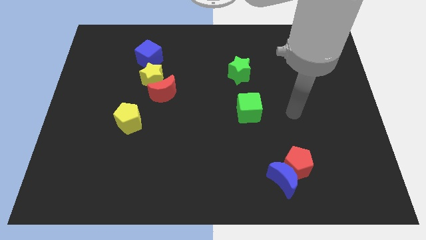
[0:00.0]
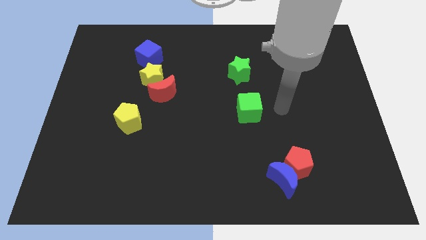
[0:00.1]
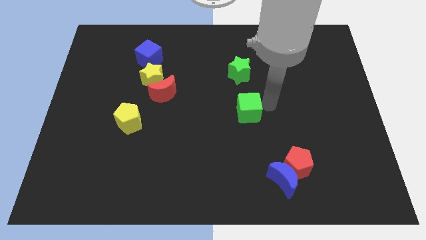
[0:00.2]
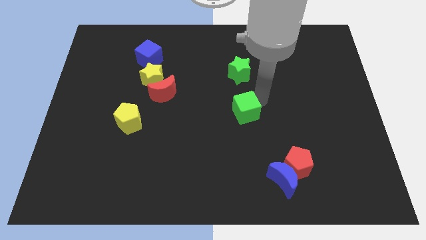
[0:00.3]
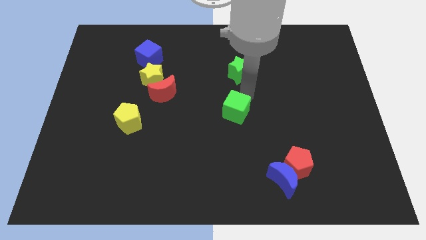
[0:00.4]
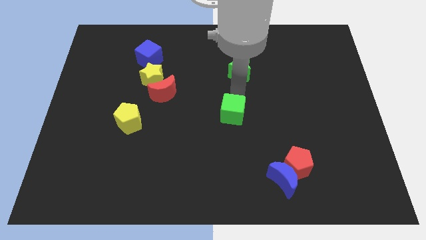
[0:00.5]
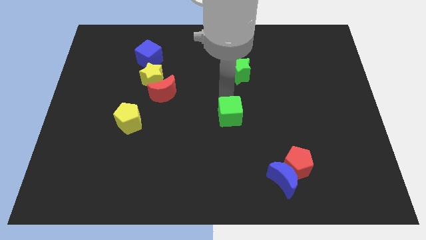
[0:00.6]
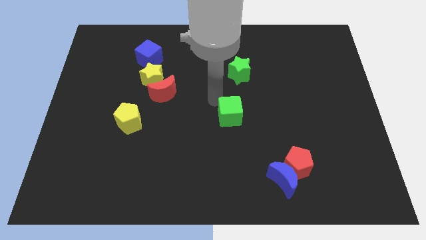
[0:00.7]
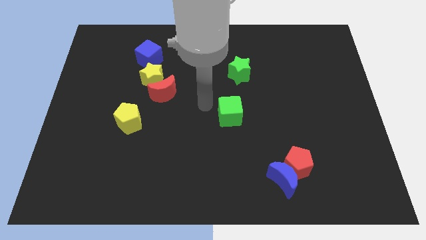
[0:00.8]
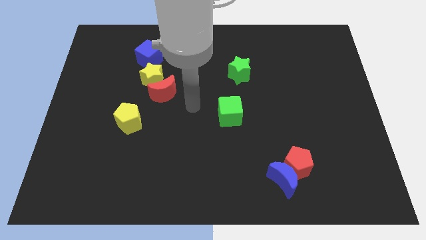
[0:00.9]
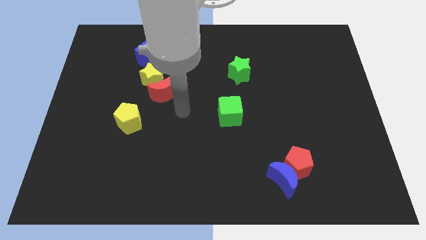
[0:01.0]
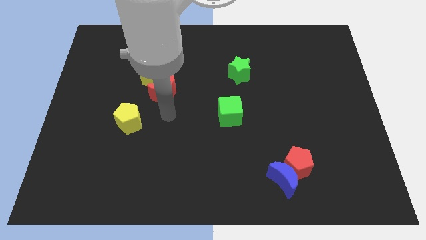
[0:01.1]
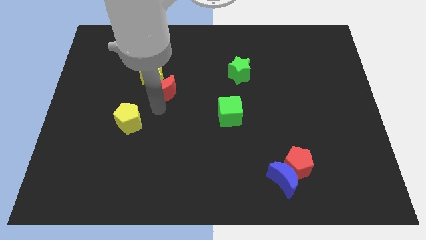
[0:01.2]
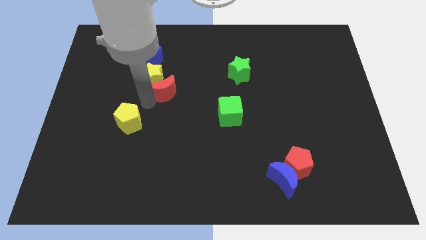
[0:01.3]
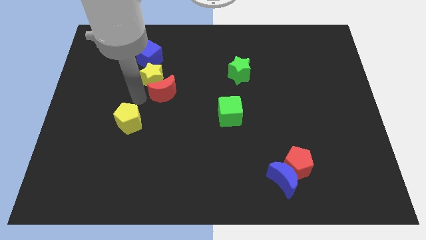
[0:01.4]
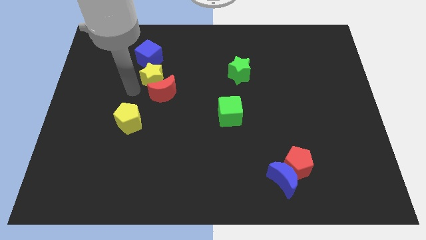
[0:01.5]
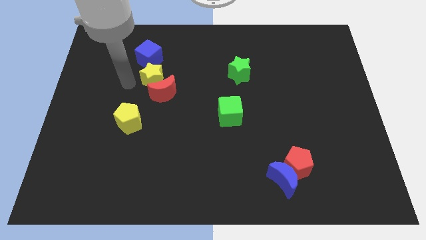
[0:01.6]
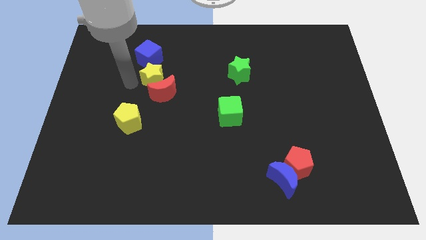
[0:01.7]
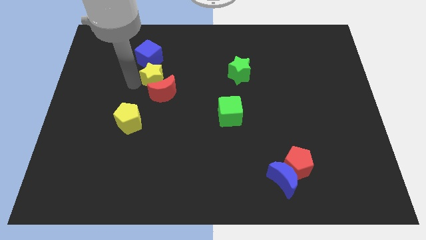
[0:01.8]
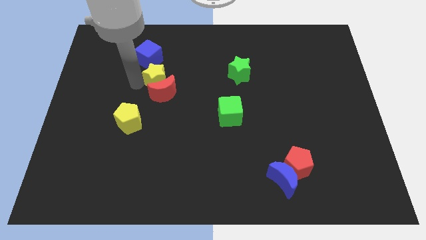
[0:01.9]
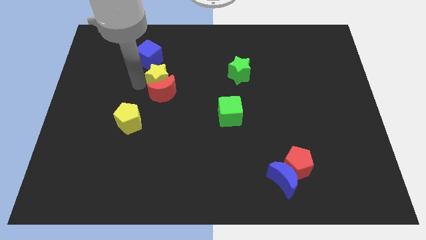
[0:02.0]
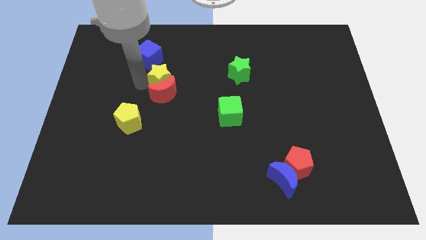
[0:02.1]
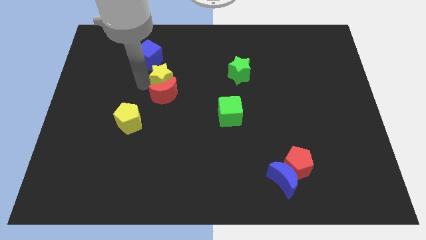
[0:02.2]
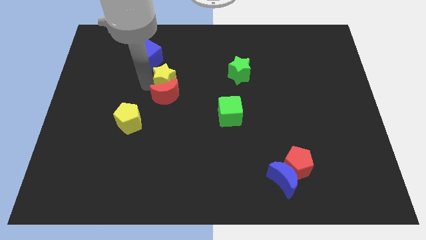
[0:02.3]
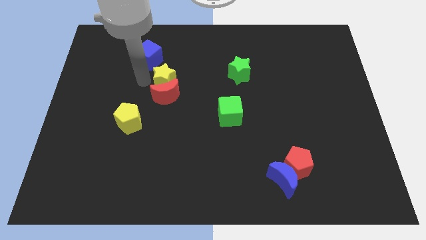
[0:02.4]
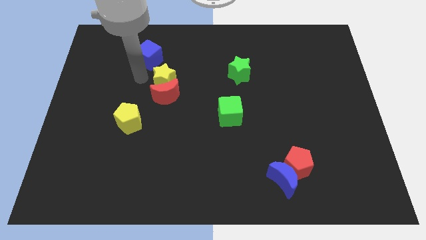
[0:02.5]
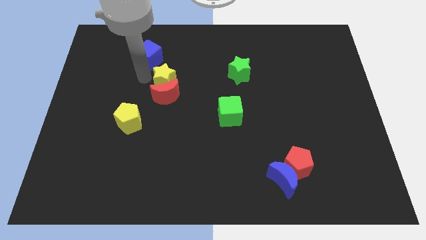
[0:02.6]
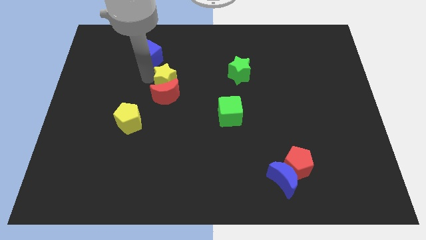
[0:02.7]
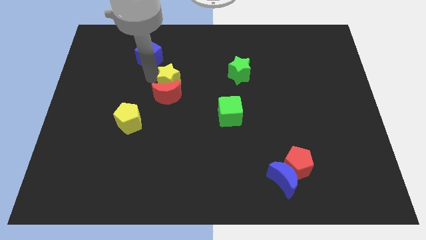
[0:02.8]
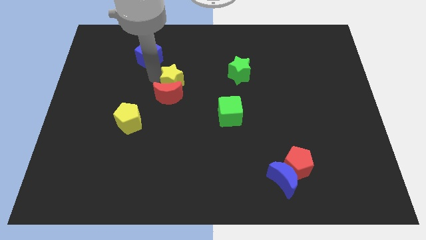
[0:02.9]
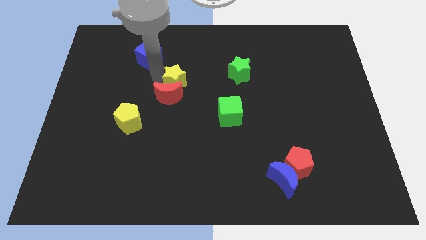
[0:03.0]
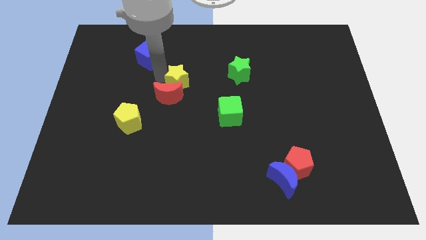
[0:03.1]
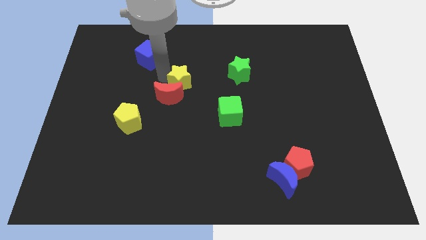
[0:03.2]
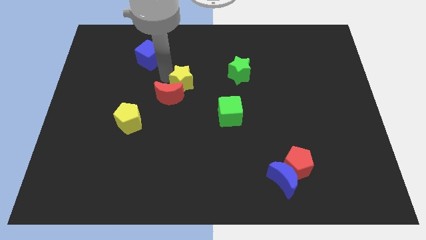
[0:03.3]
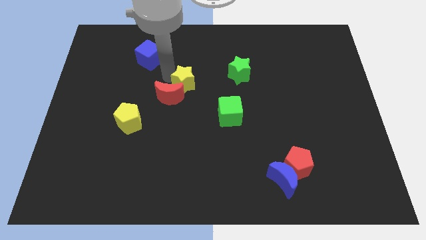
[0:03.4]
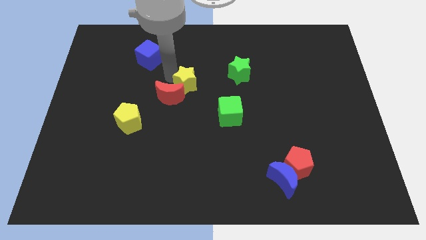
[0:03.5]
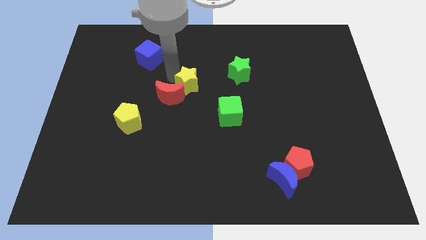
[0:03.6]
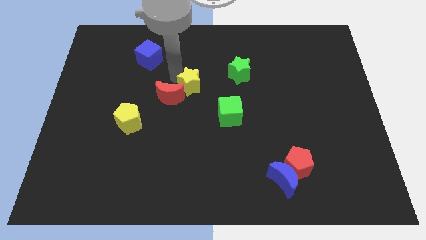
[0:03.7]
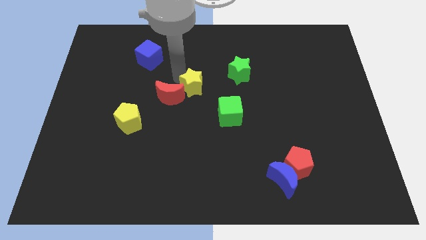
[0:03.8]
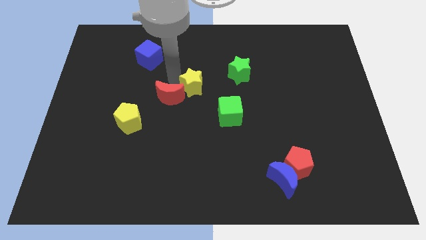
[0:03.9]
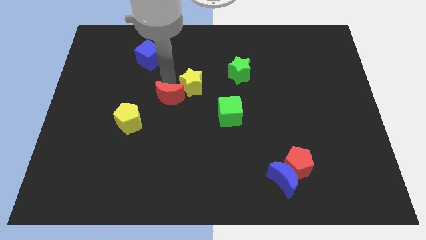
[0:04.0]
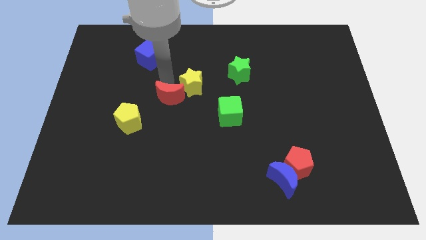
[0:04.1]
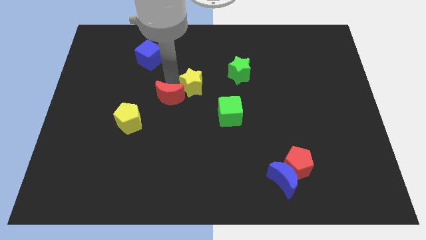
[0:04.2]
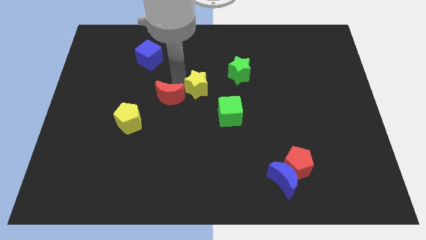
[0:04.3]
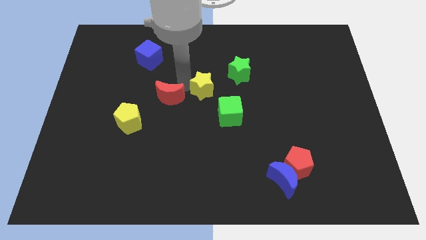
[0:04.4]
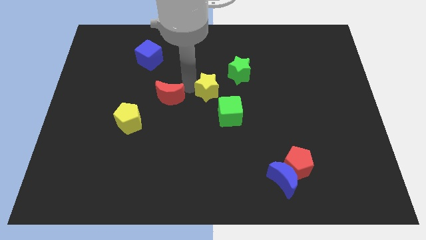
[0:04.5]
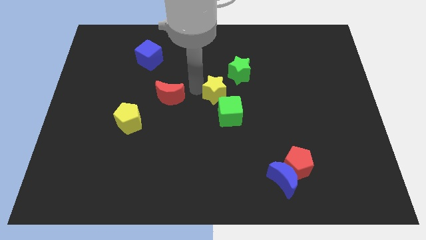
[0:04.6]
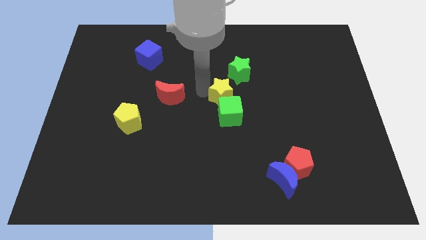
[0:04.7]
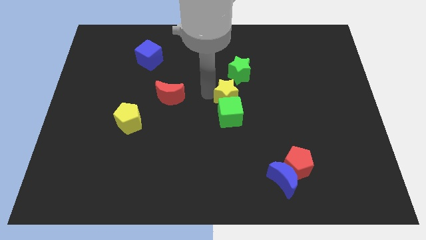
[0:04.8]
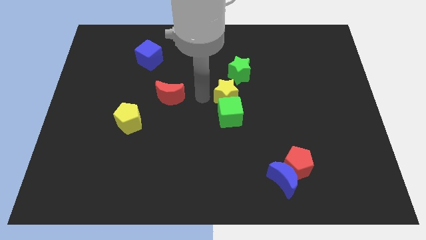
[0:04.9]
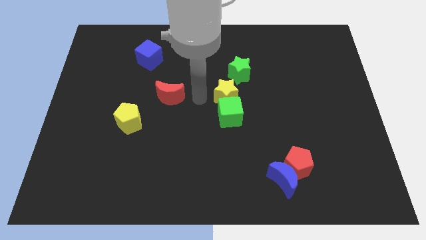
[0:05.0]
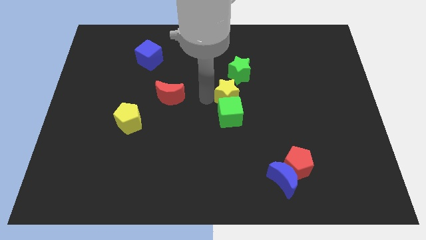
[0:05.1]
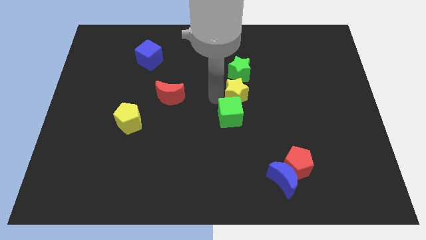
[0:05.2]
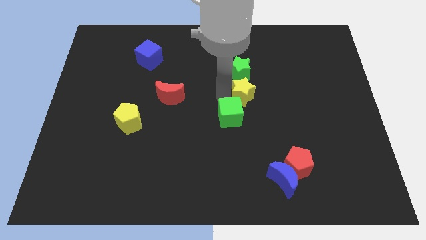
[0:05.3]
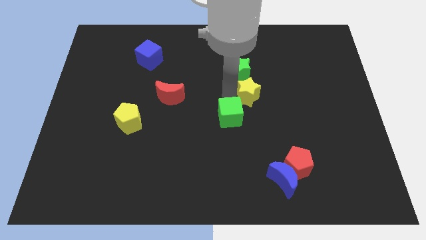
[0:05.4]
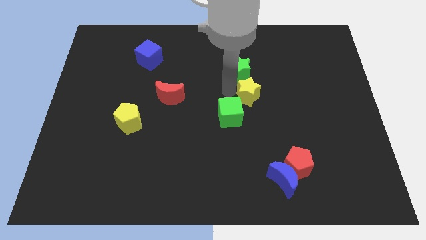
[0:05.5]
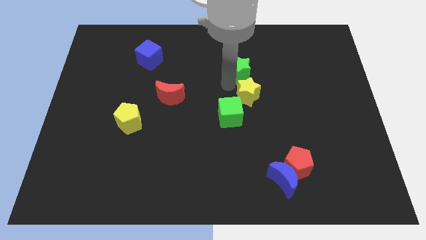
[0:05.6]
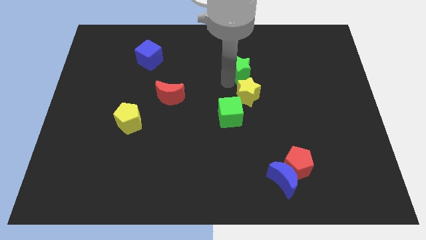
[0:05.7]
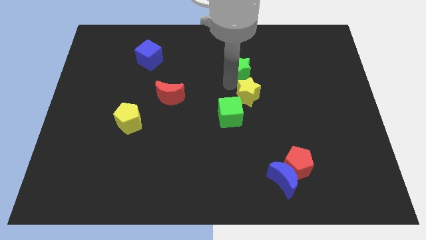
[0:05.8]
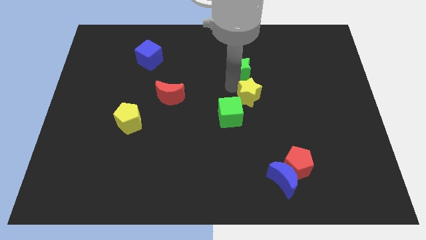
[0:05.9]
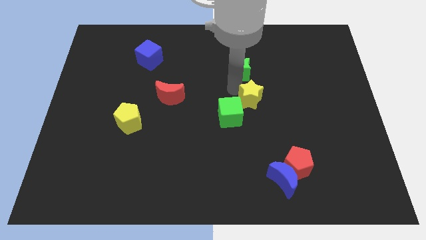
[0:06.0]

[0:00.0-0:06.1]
move the yellow star just right of the green cube

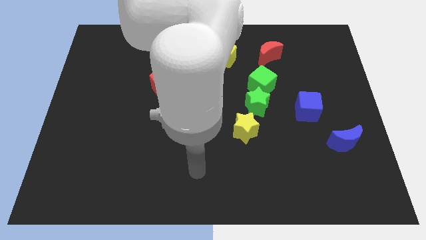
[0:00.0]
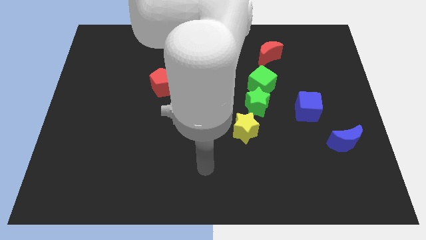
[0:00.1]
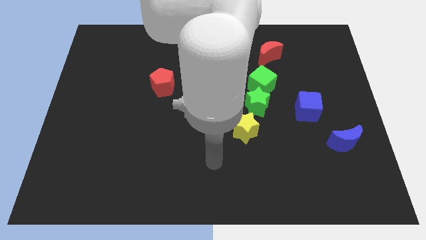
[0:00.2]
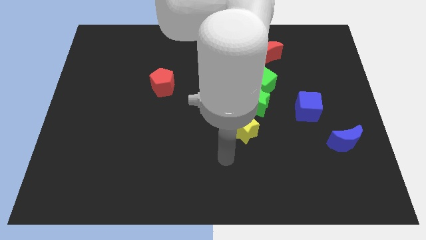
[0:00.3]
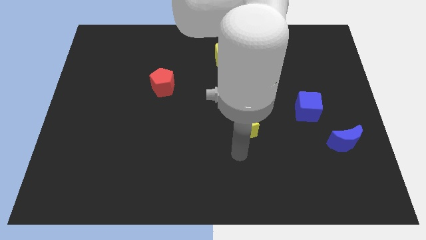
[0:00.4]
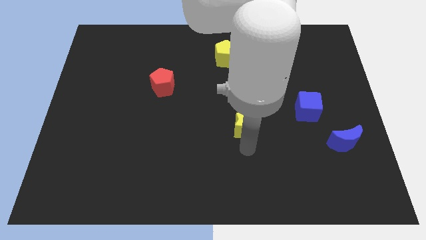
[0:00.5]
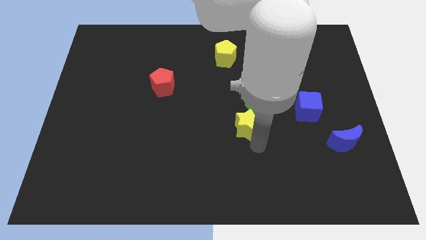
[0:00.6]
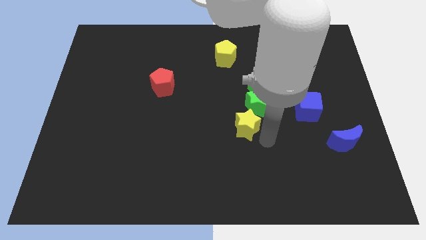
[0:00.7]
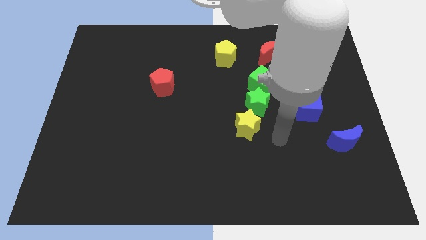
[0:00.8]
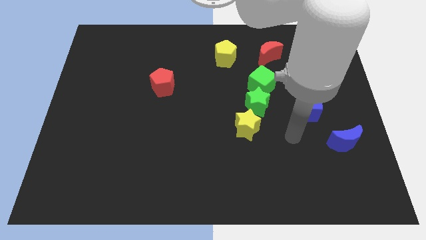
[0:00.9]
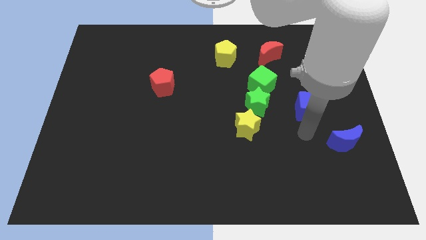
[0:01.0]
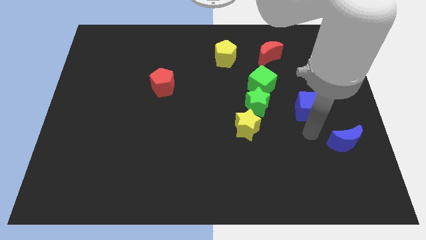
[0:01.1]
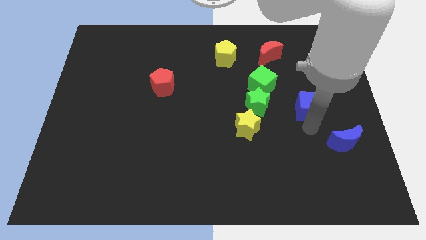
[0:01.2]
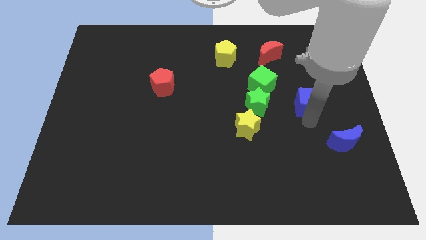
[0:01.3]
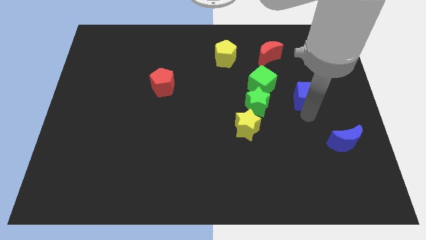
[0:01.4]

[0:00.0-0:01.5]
push the blue cube to the right of the green cube
